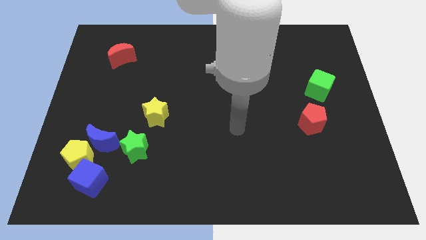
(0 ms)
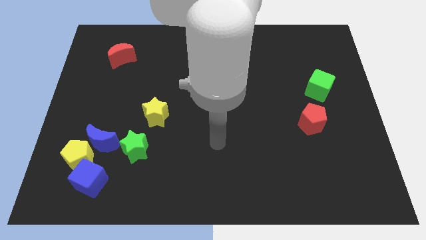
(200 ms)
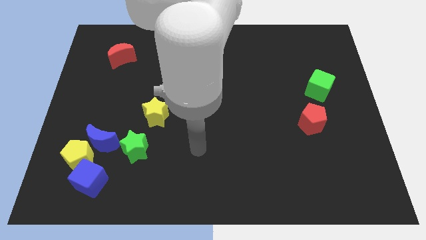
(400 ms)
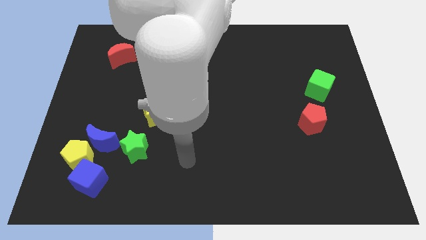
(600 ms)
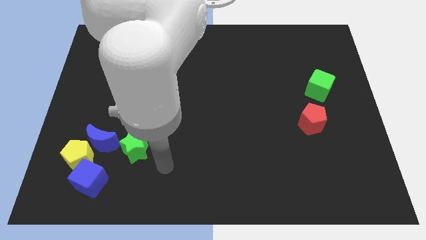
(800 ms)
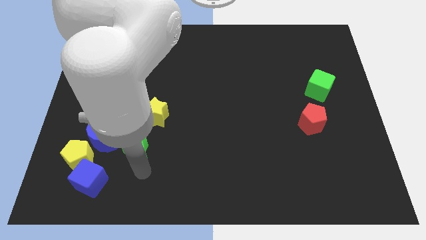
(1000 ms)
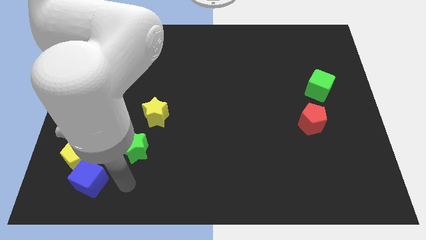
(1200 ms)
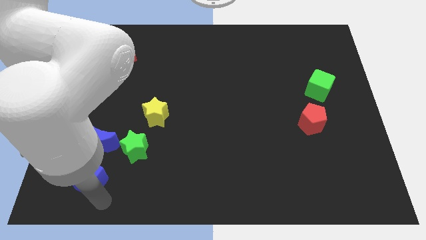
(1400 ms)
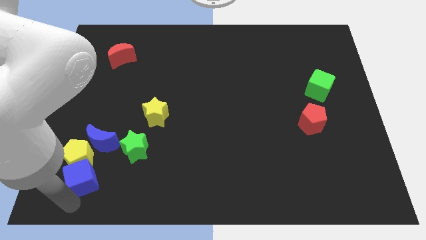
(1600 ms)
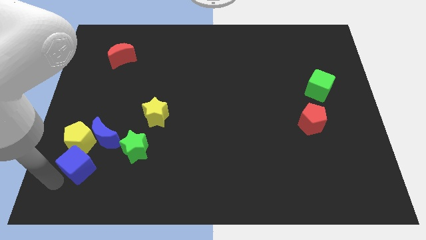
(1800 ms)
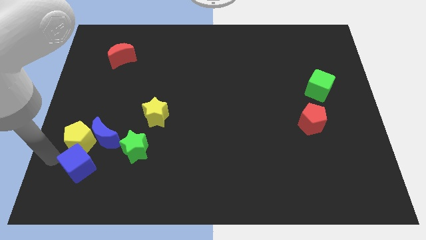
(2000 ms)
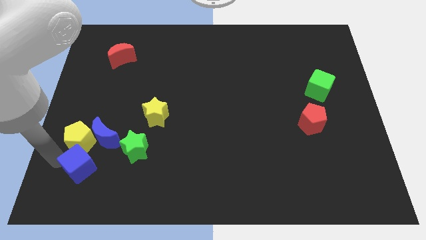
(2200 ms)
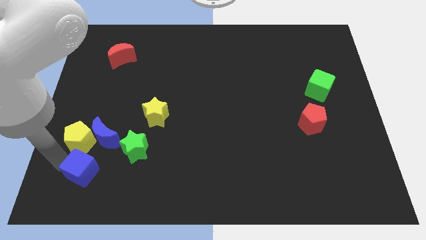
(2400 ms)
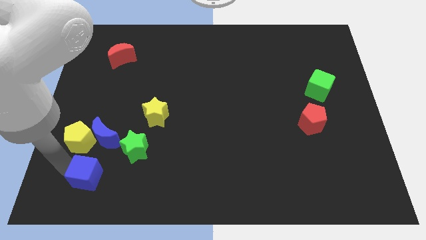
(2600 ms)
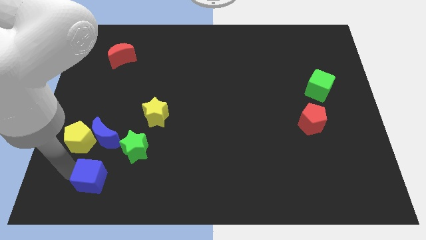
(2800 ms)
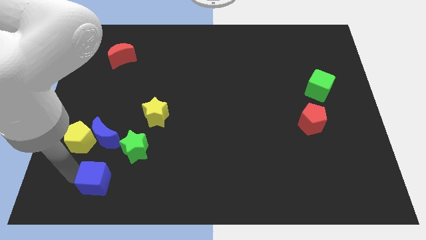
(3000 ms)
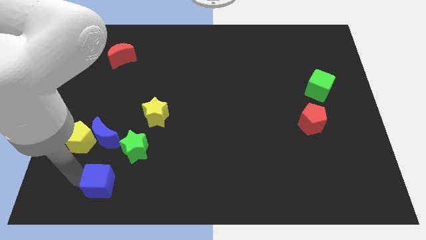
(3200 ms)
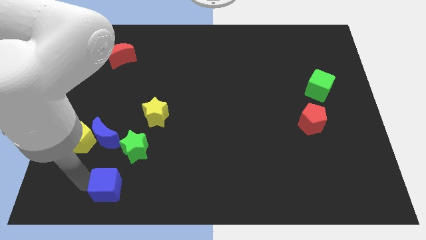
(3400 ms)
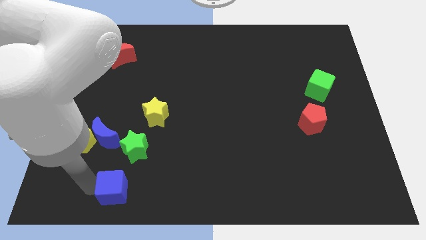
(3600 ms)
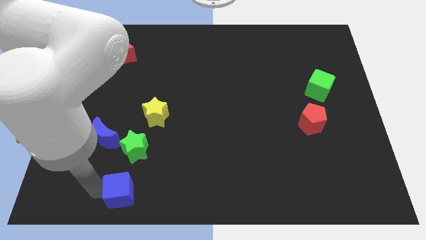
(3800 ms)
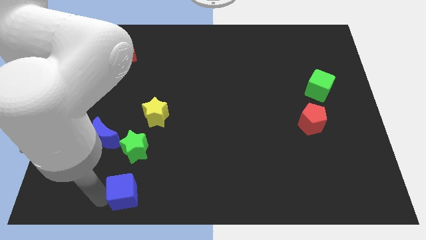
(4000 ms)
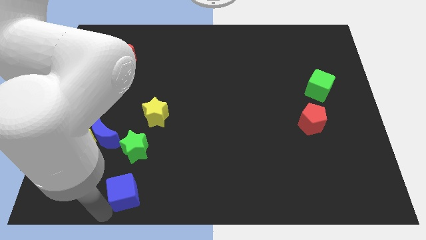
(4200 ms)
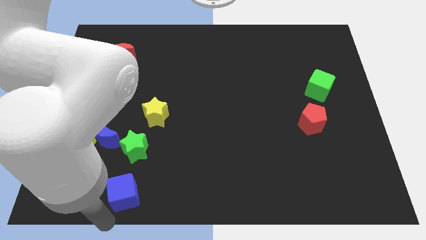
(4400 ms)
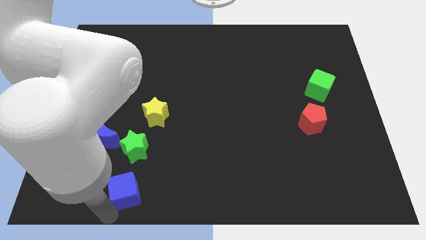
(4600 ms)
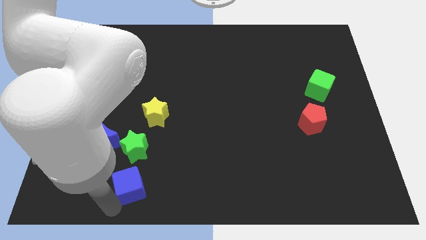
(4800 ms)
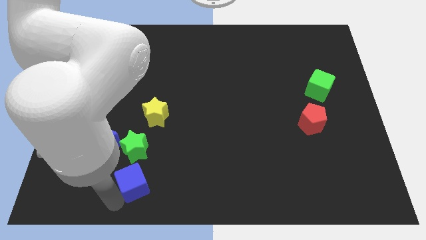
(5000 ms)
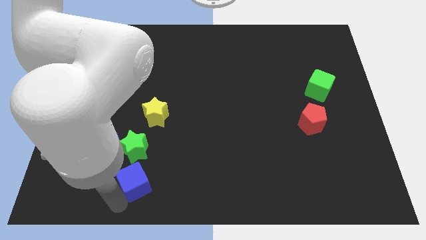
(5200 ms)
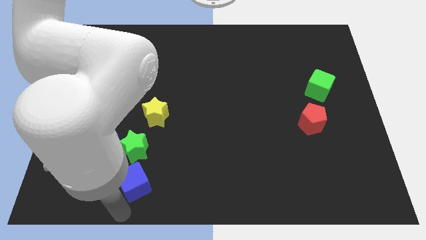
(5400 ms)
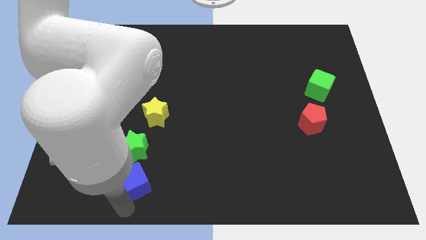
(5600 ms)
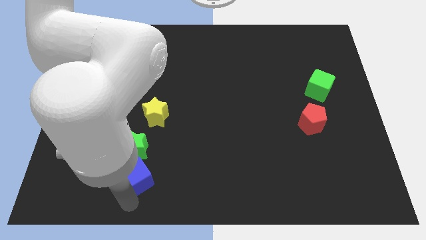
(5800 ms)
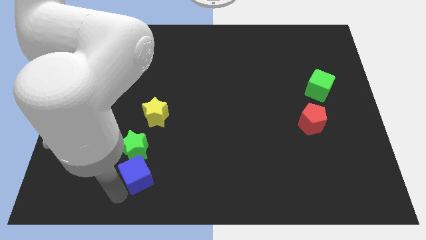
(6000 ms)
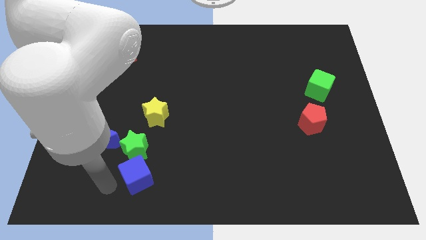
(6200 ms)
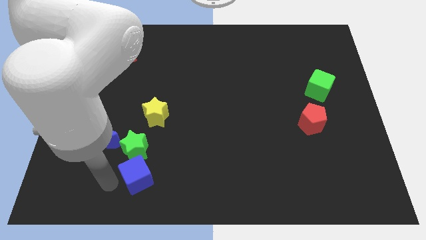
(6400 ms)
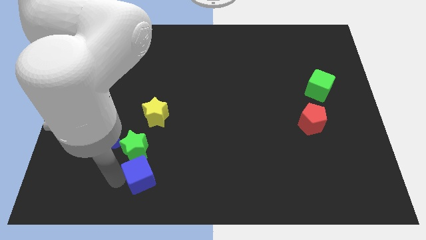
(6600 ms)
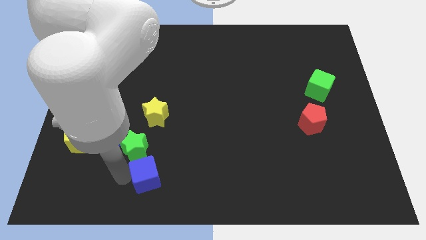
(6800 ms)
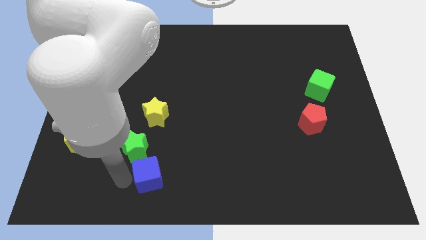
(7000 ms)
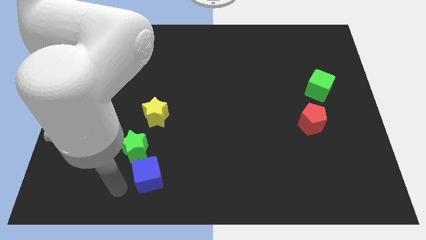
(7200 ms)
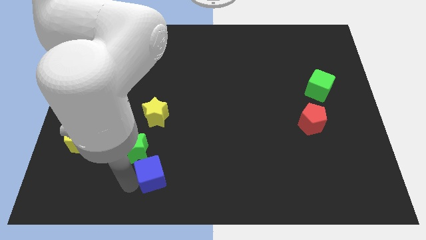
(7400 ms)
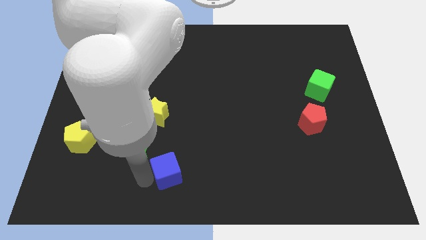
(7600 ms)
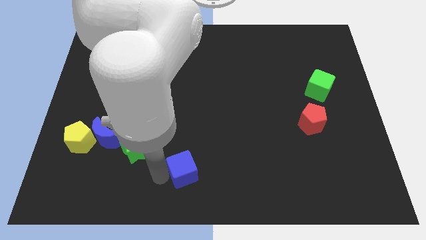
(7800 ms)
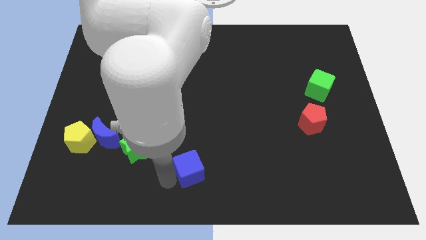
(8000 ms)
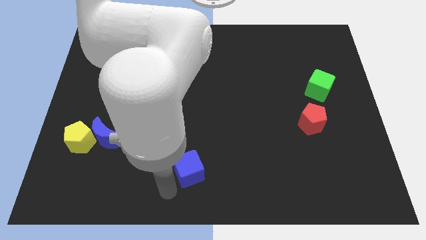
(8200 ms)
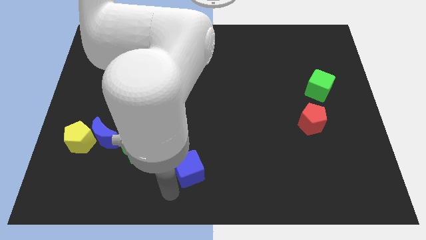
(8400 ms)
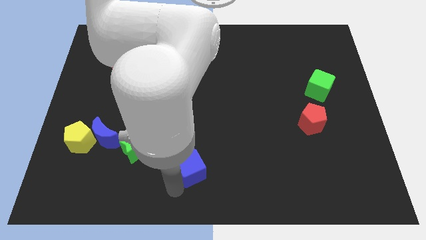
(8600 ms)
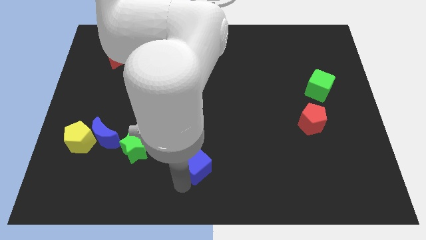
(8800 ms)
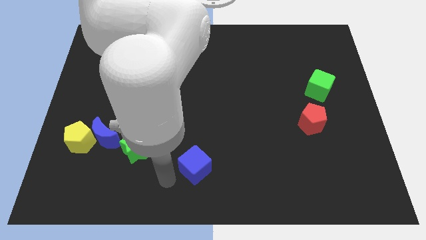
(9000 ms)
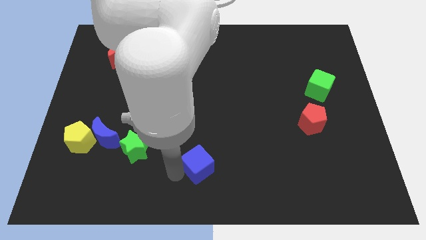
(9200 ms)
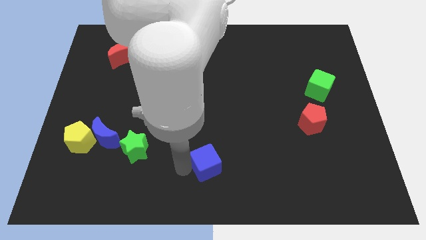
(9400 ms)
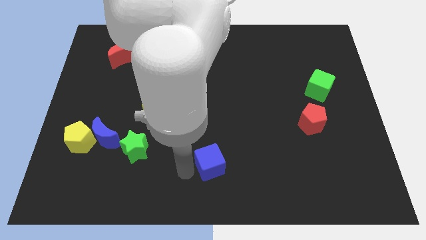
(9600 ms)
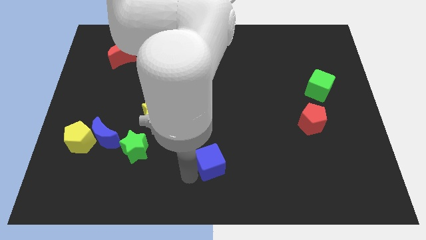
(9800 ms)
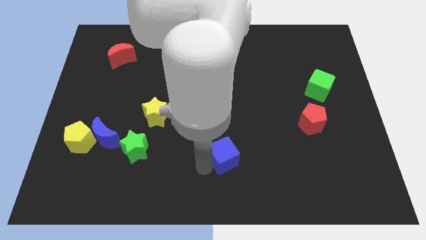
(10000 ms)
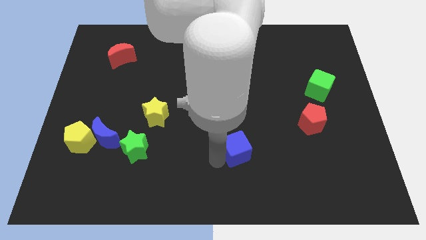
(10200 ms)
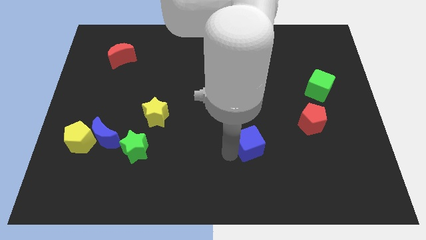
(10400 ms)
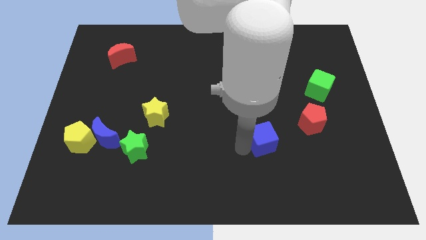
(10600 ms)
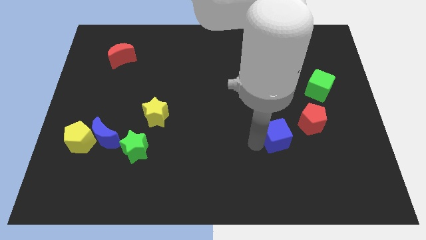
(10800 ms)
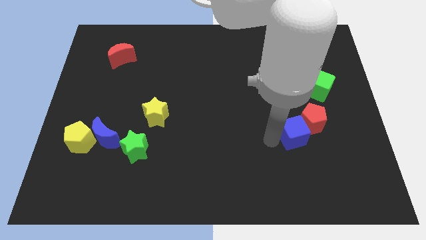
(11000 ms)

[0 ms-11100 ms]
put the blue cube towards the red pentagon

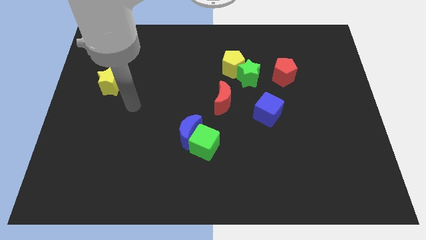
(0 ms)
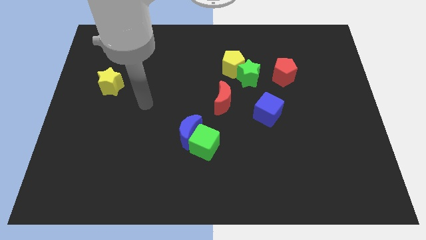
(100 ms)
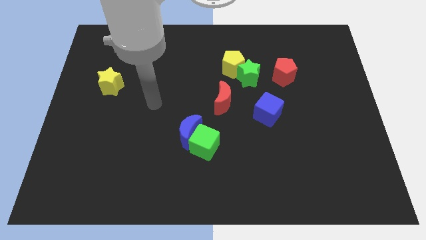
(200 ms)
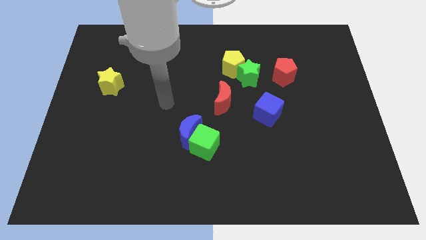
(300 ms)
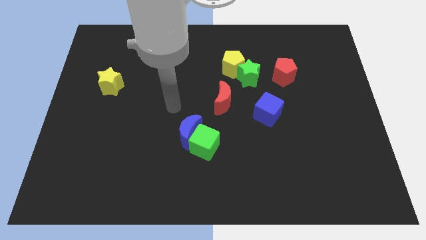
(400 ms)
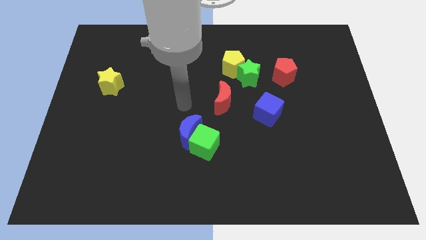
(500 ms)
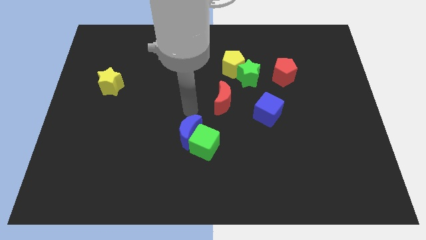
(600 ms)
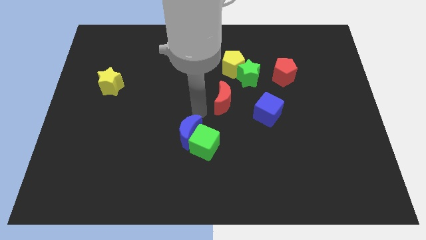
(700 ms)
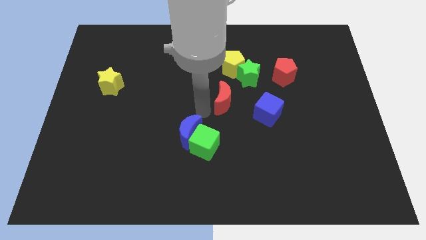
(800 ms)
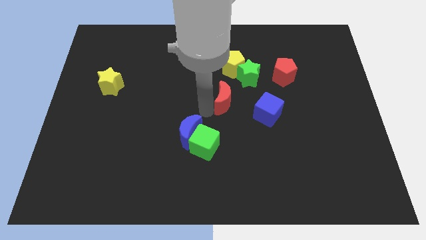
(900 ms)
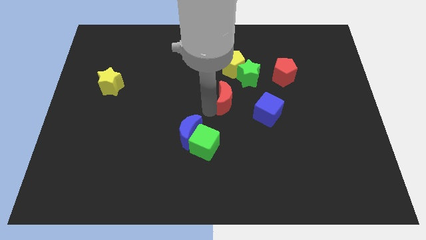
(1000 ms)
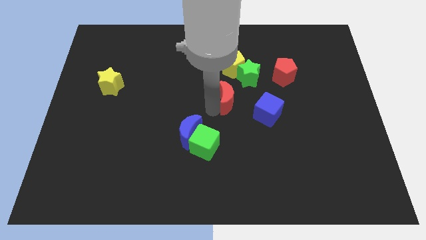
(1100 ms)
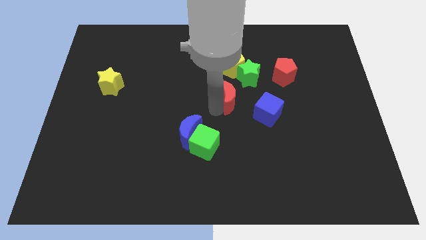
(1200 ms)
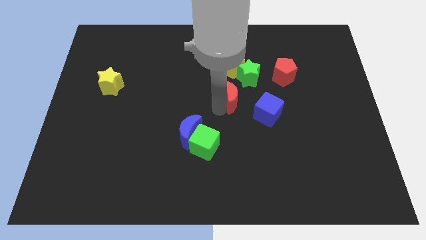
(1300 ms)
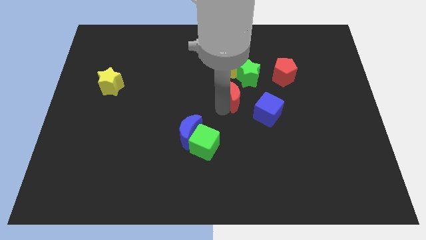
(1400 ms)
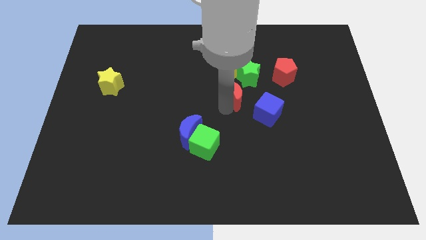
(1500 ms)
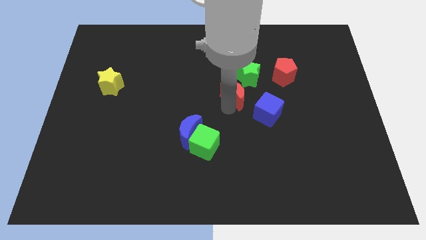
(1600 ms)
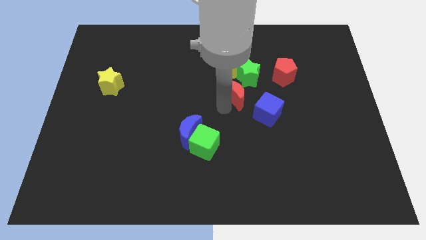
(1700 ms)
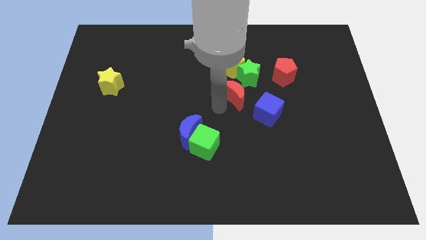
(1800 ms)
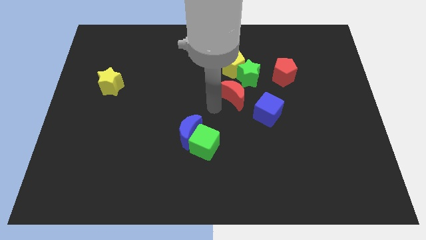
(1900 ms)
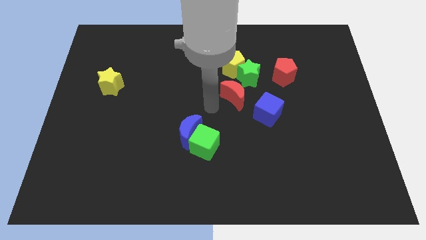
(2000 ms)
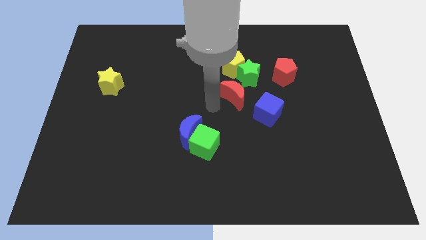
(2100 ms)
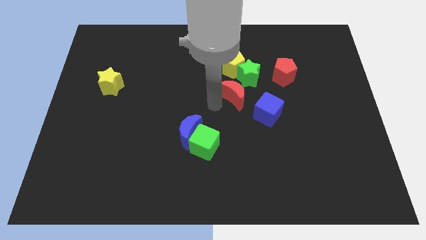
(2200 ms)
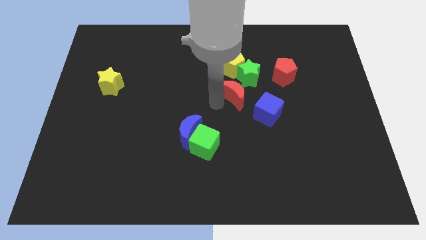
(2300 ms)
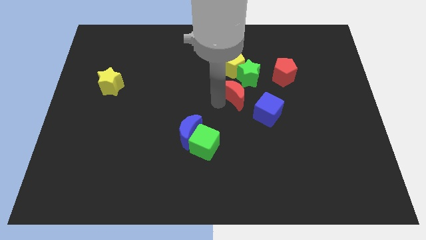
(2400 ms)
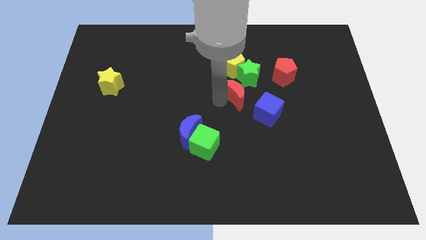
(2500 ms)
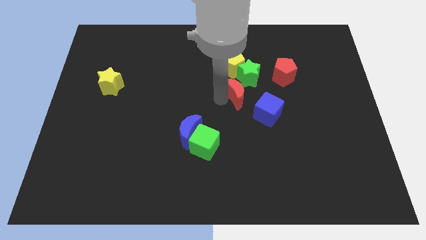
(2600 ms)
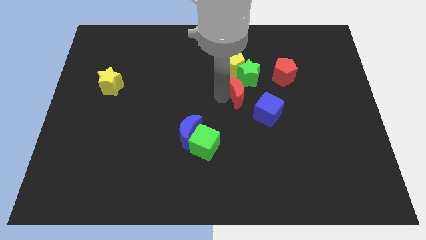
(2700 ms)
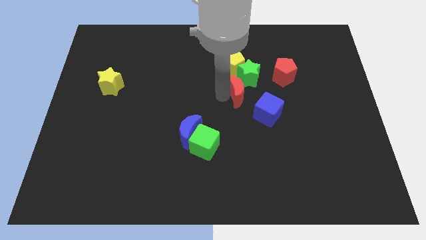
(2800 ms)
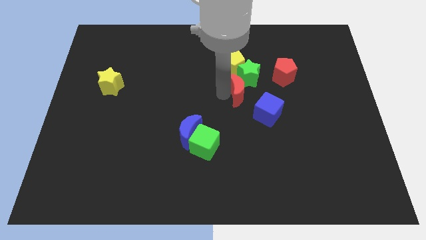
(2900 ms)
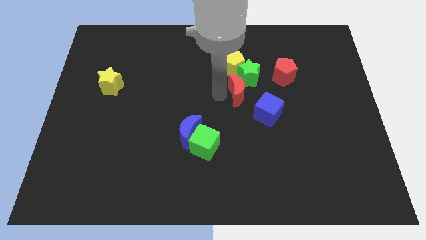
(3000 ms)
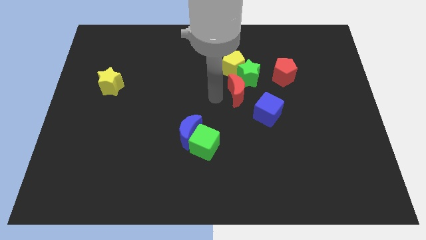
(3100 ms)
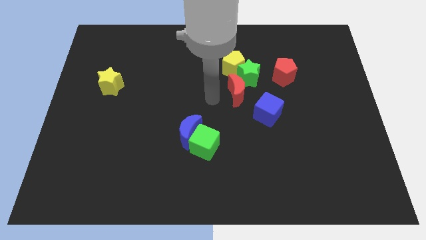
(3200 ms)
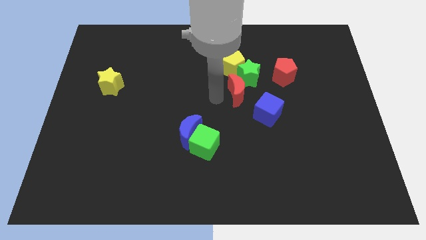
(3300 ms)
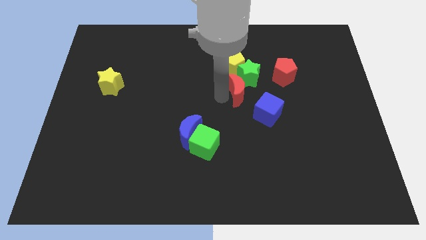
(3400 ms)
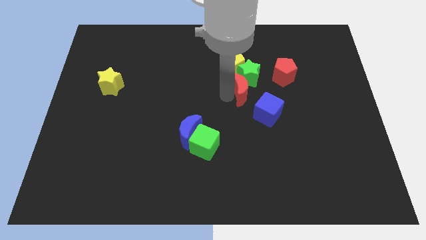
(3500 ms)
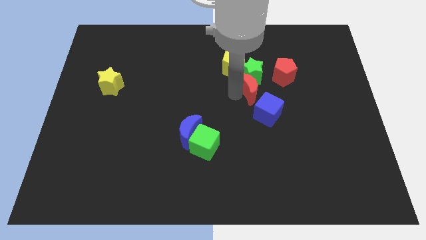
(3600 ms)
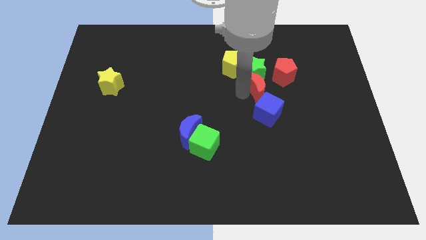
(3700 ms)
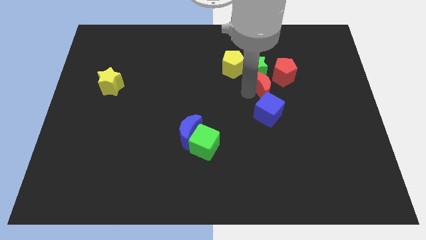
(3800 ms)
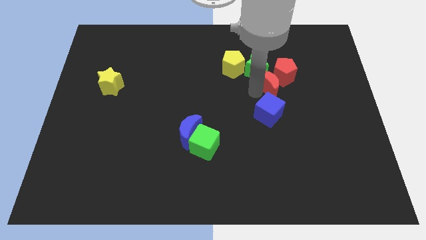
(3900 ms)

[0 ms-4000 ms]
push the red moon close to the red pentagon
